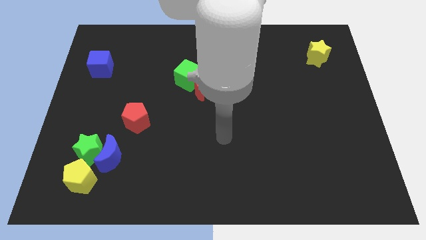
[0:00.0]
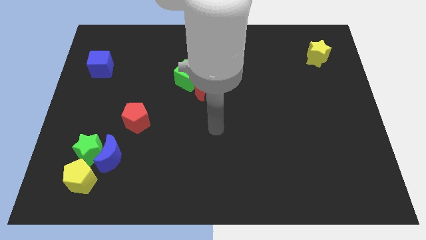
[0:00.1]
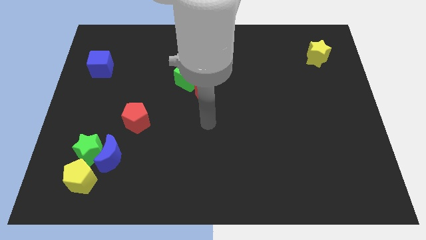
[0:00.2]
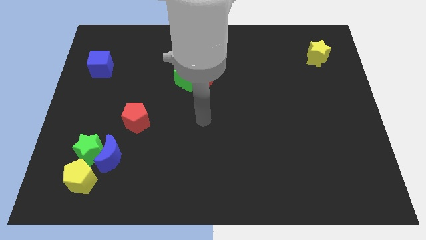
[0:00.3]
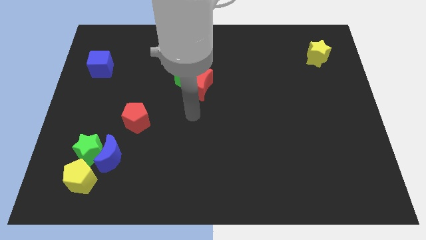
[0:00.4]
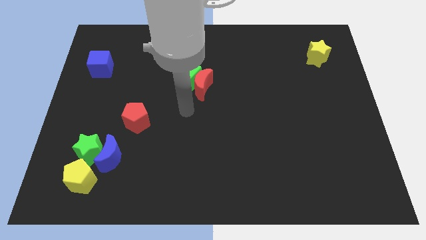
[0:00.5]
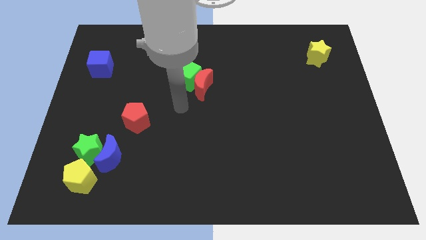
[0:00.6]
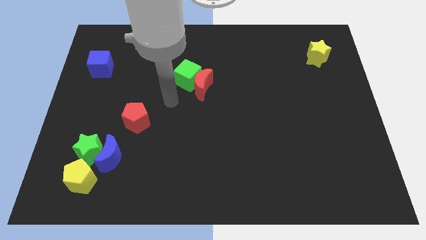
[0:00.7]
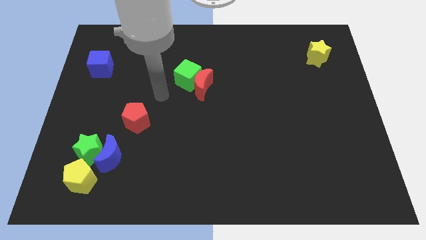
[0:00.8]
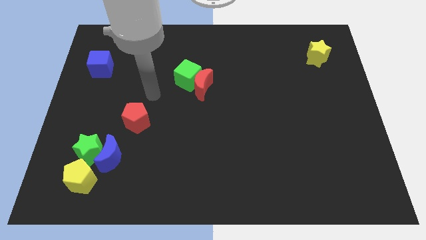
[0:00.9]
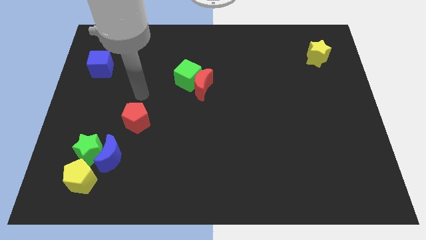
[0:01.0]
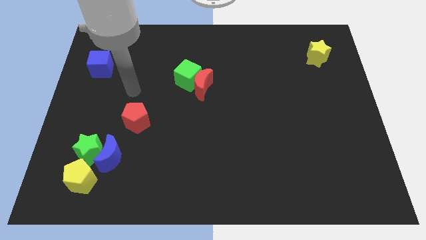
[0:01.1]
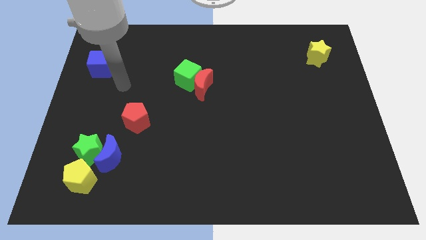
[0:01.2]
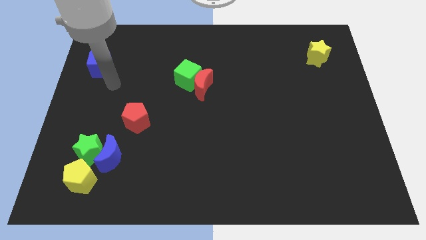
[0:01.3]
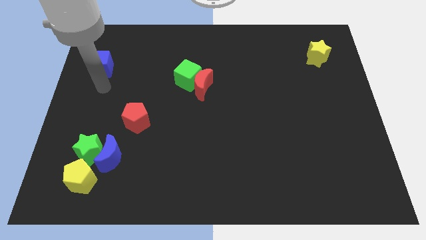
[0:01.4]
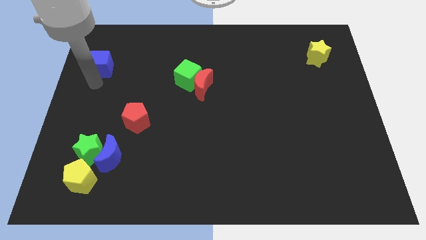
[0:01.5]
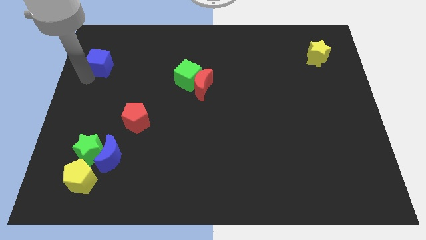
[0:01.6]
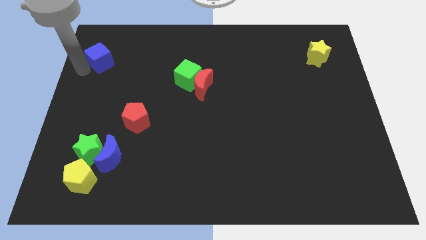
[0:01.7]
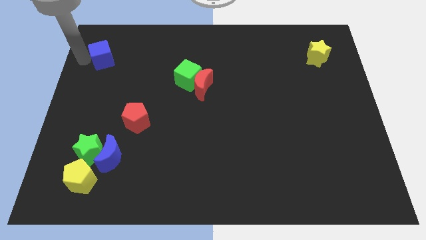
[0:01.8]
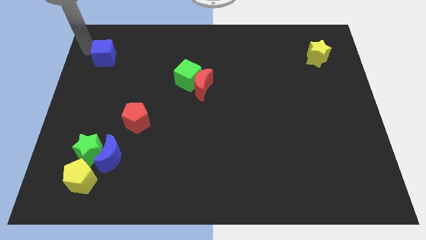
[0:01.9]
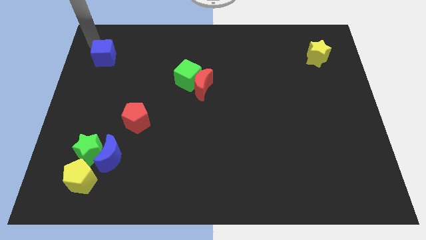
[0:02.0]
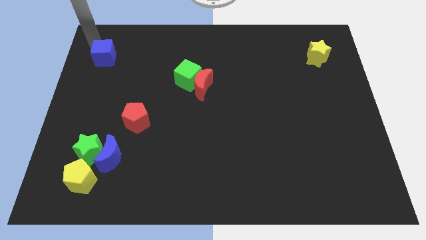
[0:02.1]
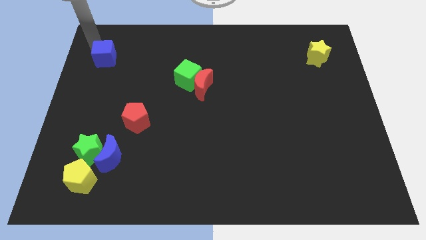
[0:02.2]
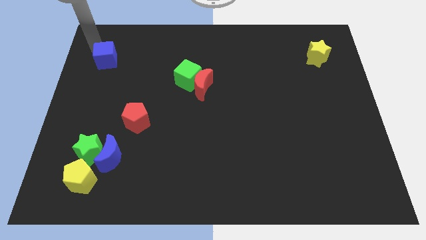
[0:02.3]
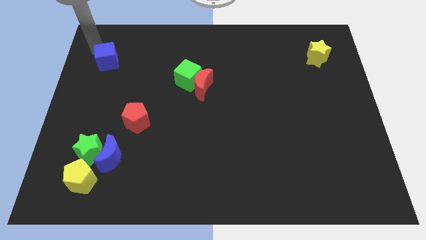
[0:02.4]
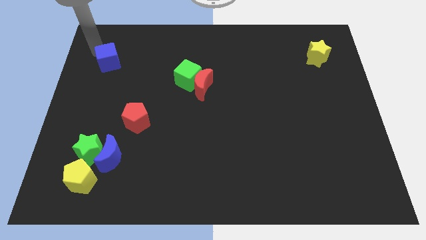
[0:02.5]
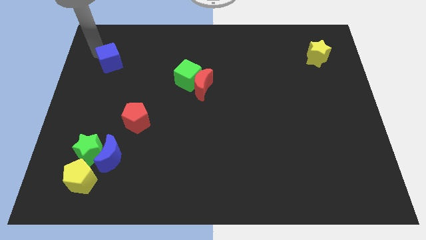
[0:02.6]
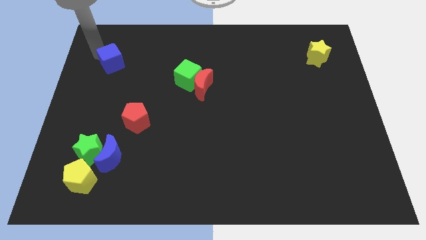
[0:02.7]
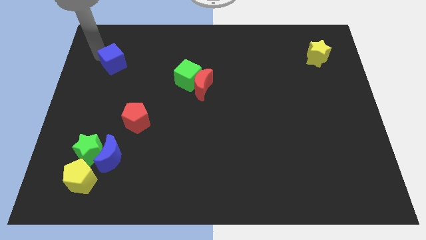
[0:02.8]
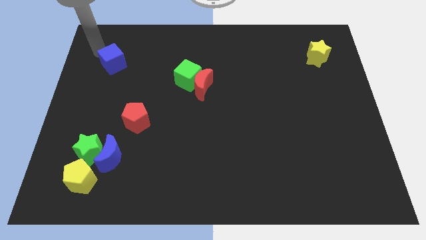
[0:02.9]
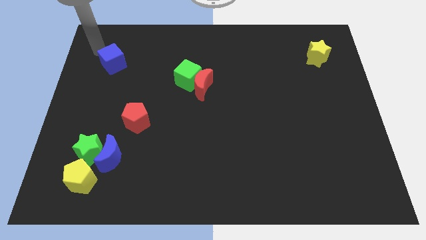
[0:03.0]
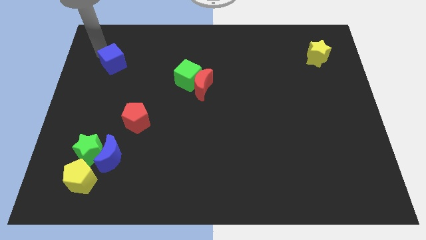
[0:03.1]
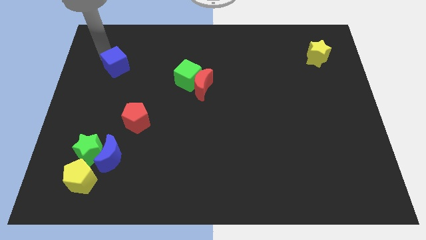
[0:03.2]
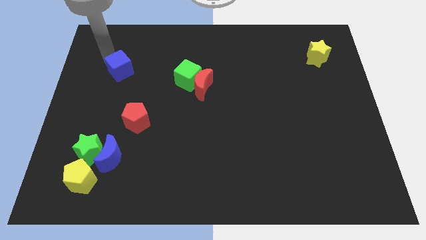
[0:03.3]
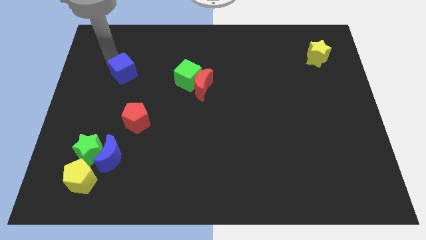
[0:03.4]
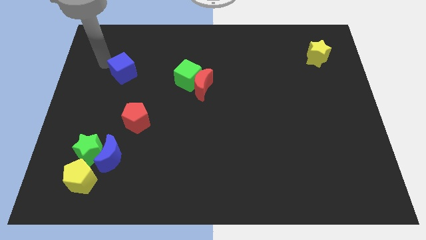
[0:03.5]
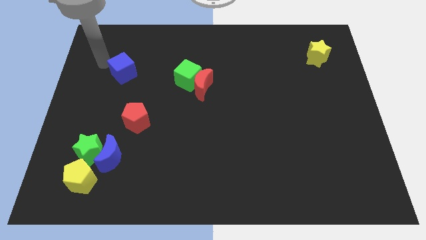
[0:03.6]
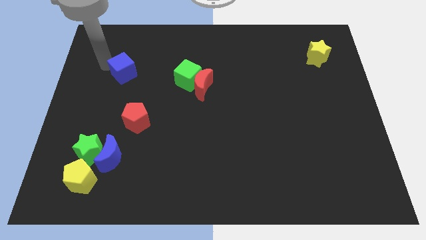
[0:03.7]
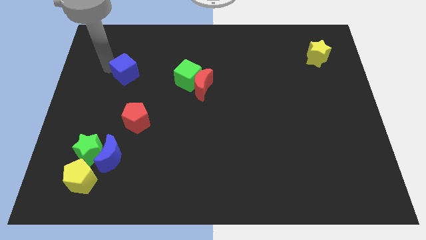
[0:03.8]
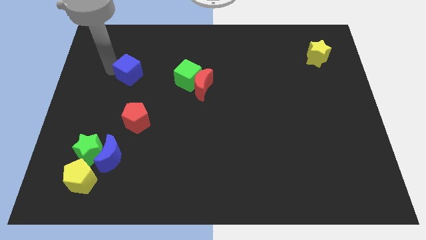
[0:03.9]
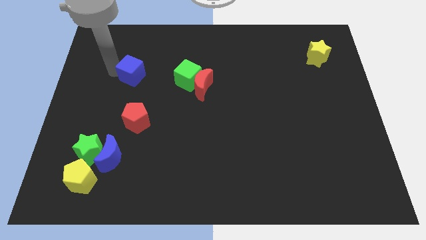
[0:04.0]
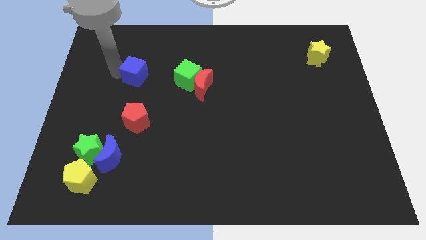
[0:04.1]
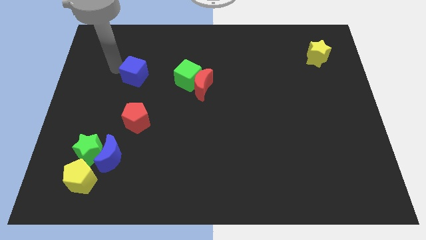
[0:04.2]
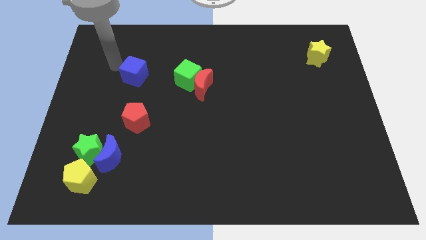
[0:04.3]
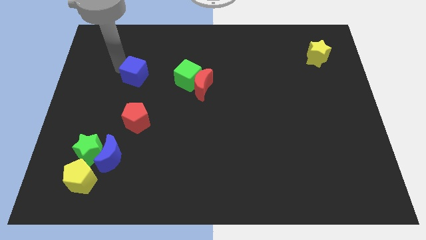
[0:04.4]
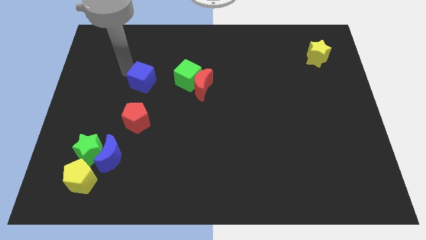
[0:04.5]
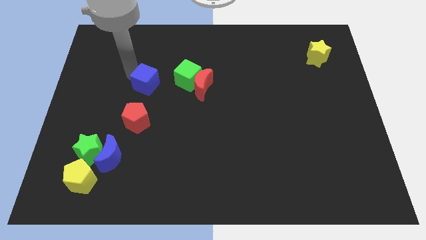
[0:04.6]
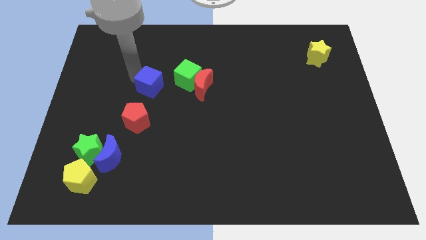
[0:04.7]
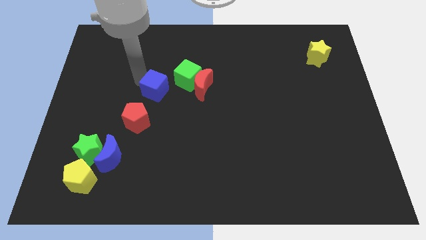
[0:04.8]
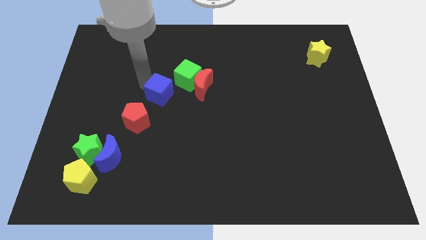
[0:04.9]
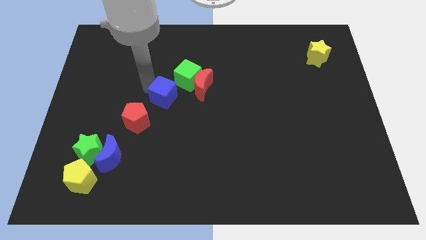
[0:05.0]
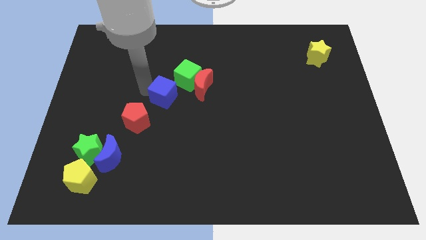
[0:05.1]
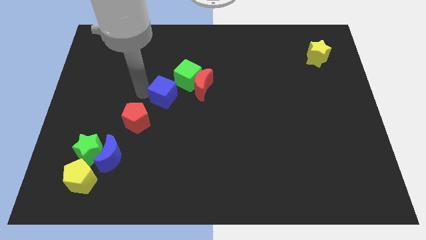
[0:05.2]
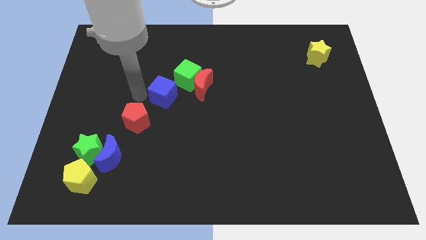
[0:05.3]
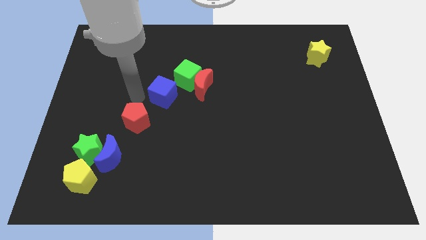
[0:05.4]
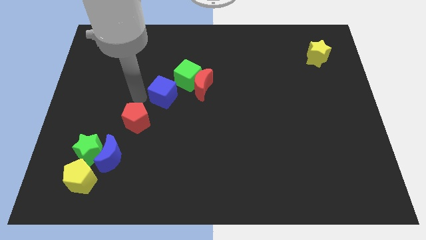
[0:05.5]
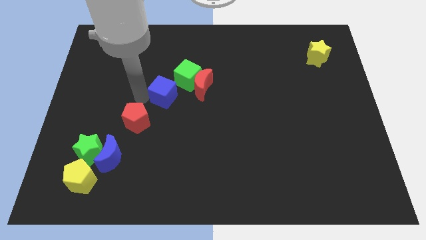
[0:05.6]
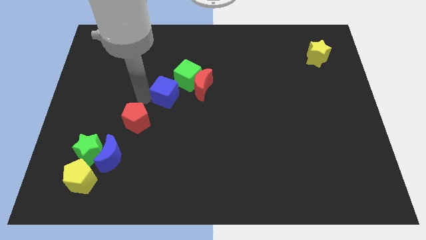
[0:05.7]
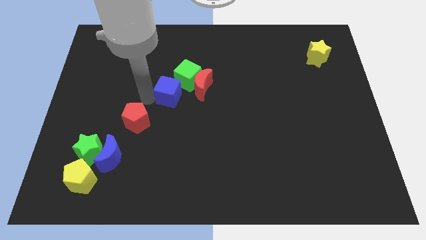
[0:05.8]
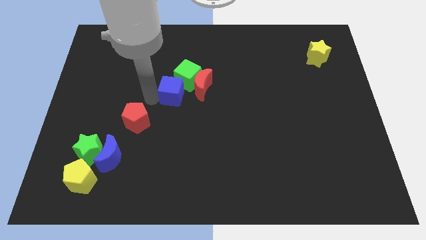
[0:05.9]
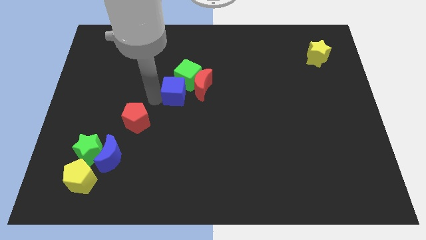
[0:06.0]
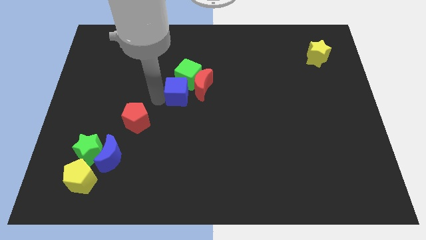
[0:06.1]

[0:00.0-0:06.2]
push the blue cube to the red moon

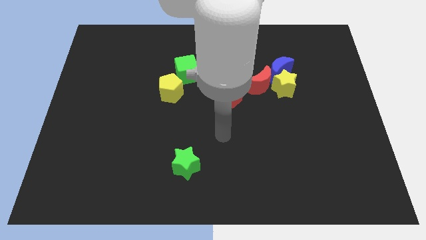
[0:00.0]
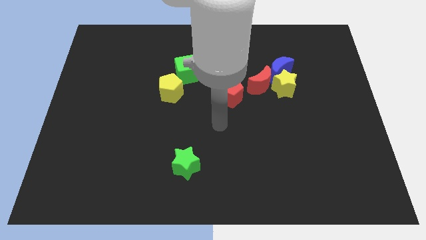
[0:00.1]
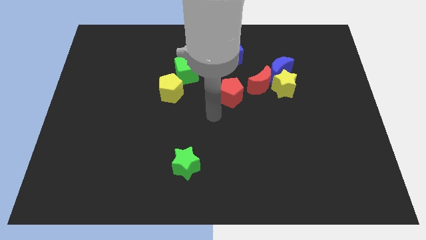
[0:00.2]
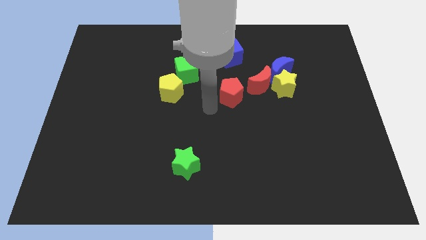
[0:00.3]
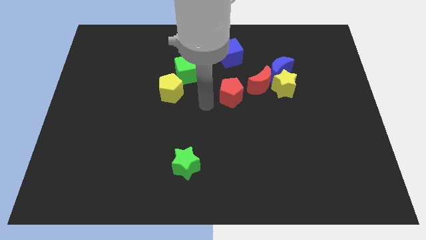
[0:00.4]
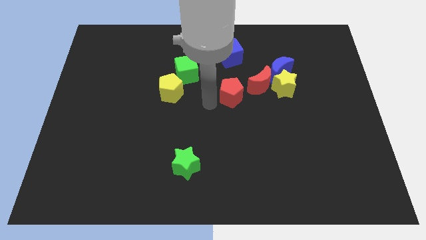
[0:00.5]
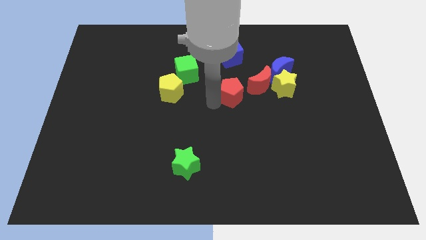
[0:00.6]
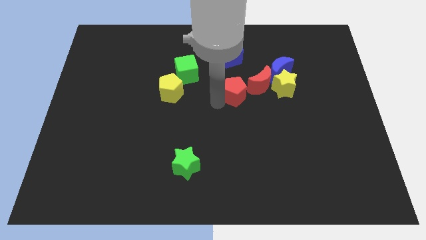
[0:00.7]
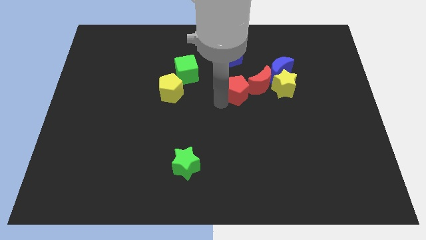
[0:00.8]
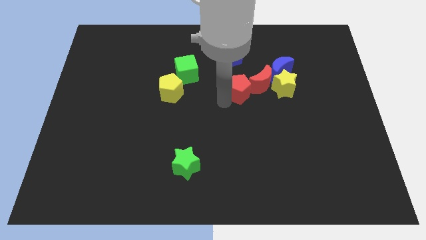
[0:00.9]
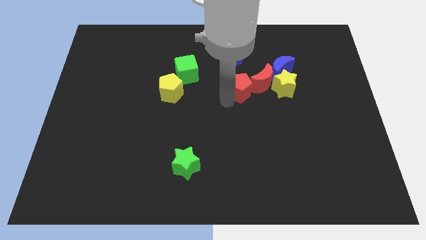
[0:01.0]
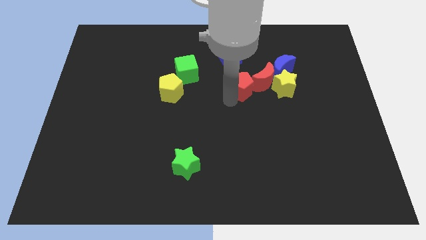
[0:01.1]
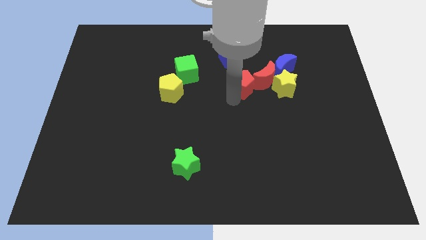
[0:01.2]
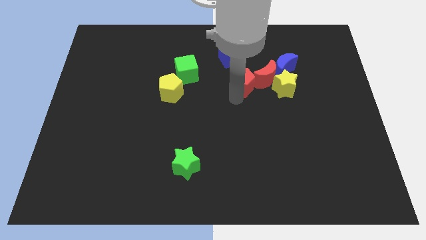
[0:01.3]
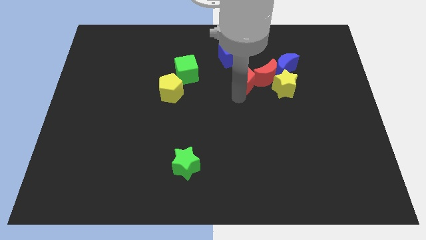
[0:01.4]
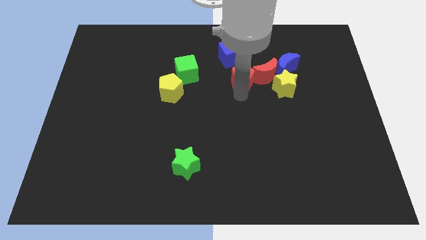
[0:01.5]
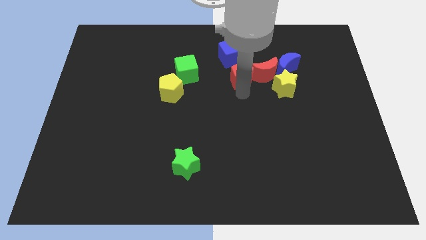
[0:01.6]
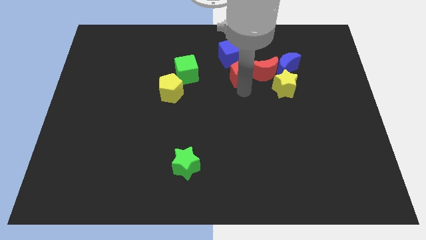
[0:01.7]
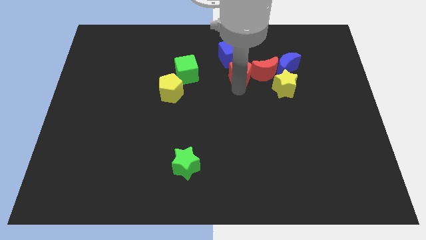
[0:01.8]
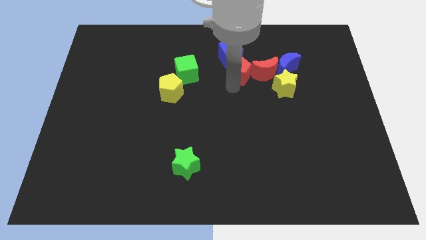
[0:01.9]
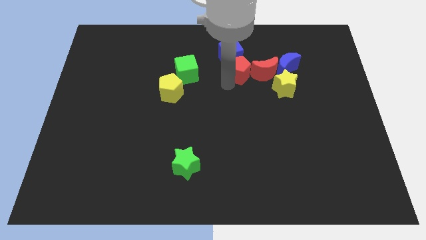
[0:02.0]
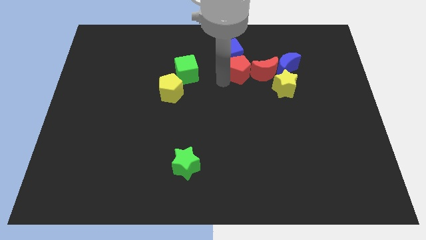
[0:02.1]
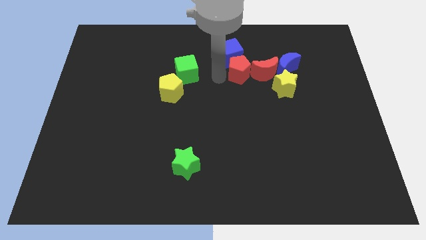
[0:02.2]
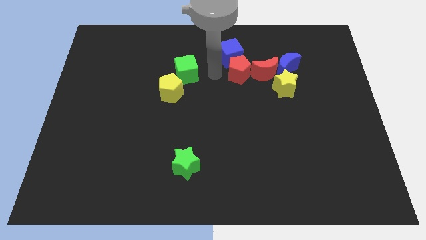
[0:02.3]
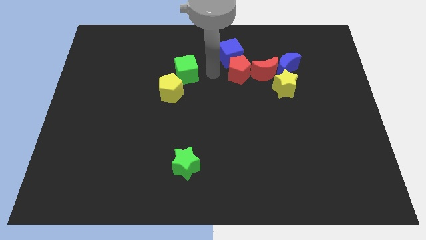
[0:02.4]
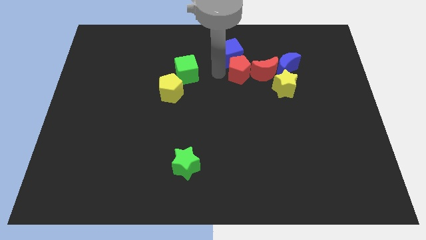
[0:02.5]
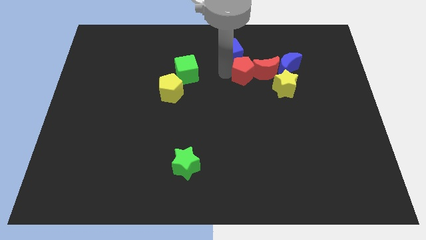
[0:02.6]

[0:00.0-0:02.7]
push the red pentagon close to the red moon
